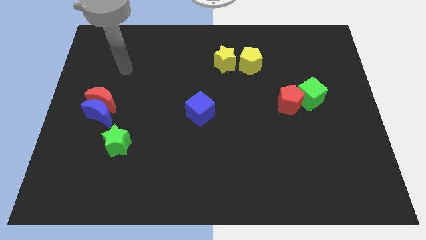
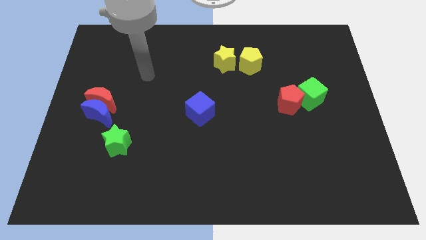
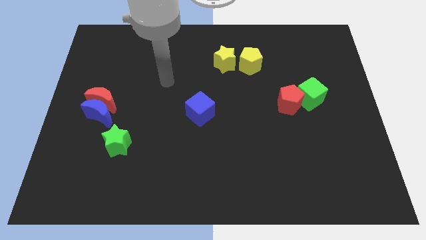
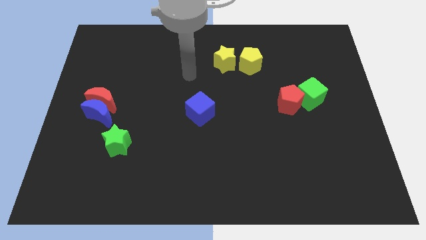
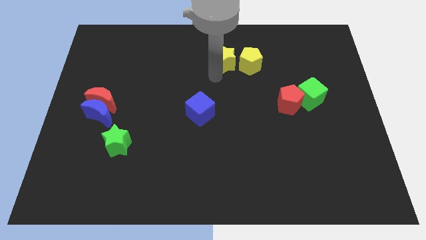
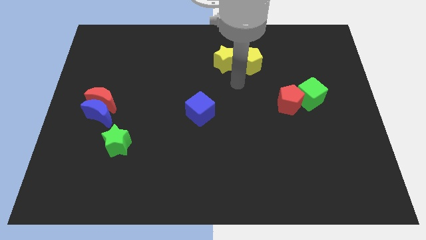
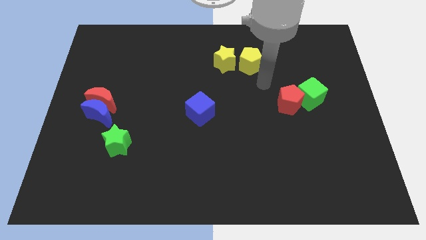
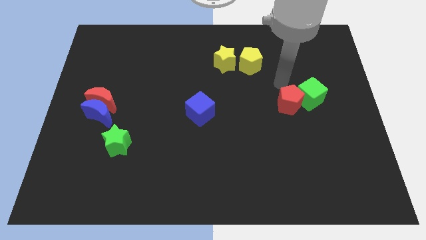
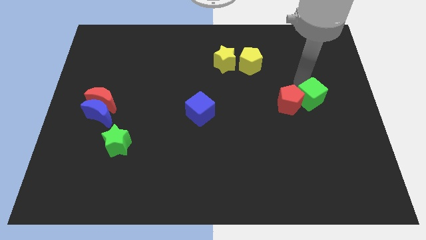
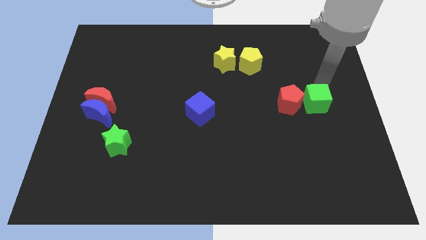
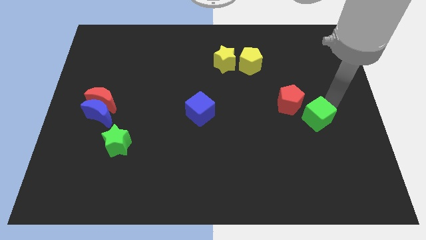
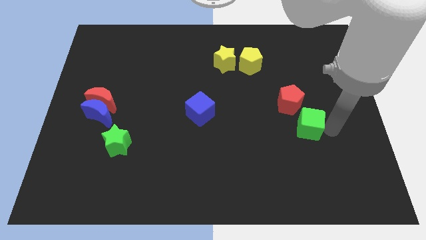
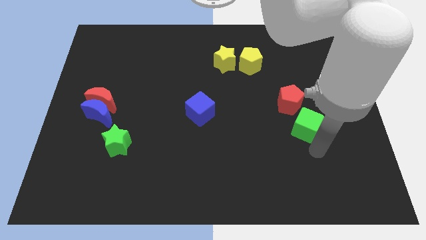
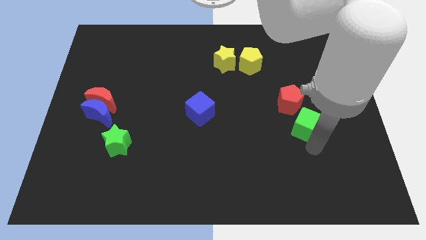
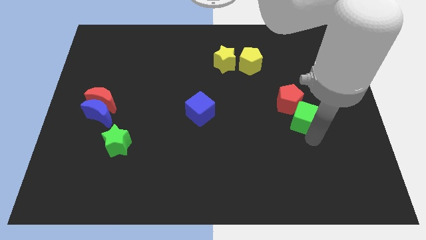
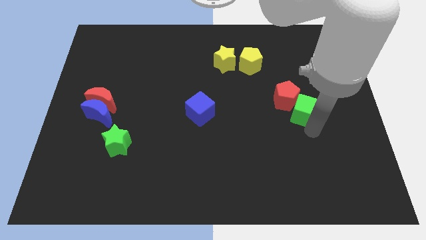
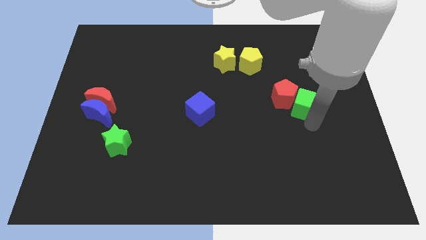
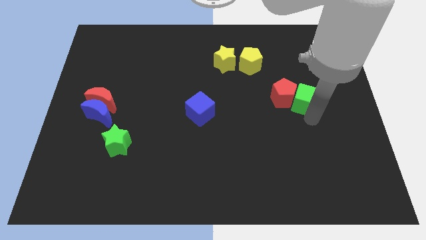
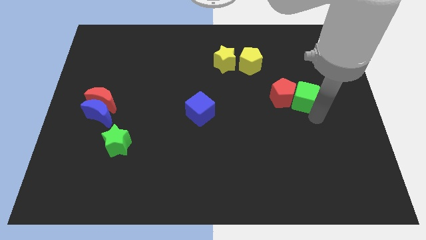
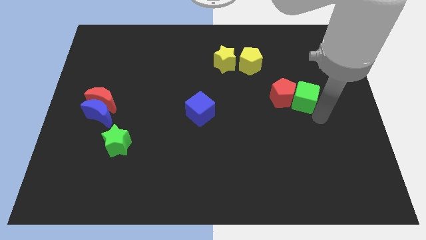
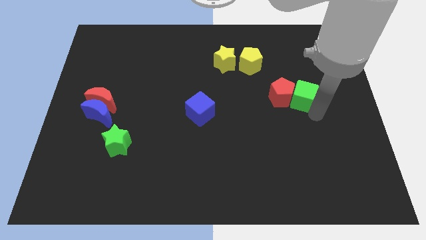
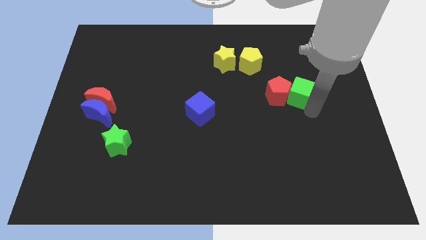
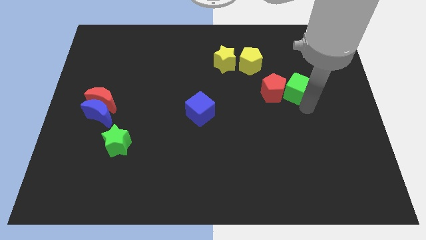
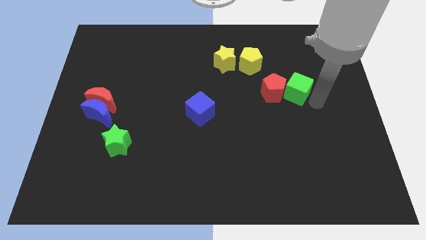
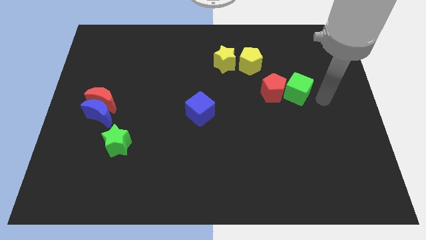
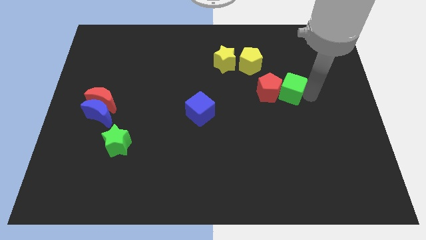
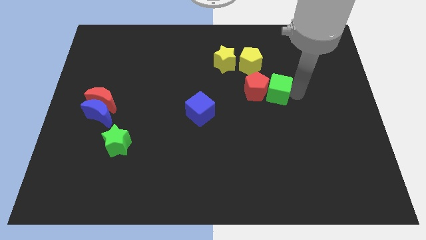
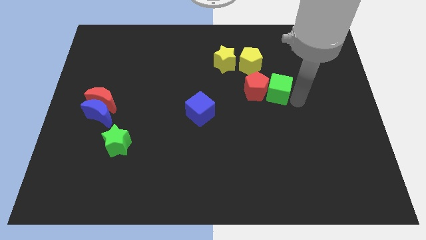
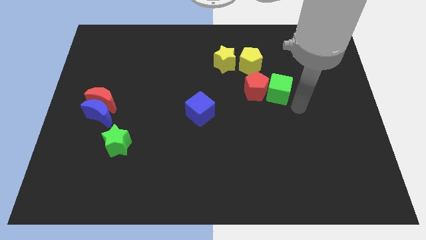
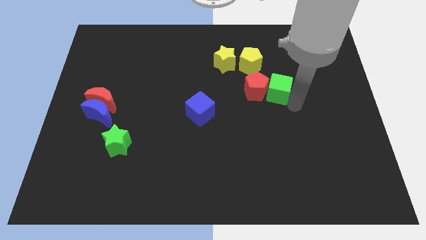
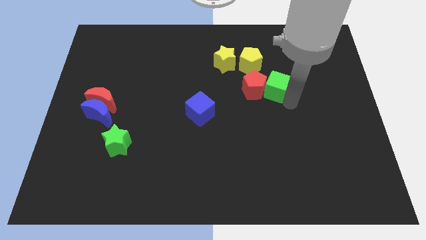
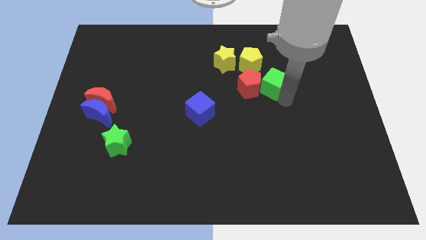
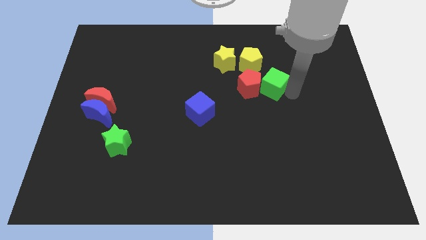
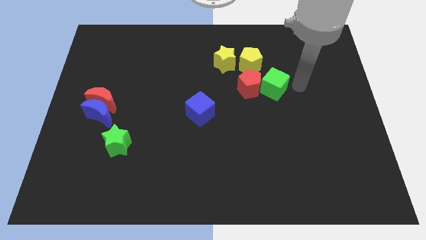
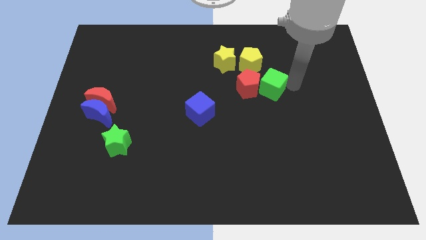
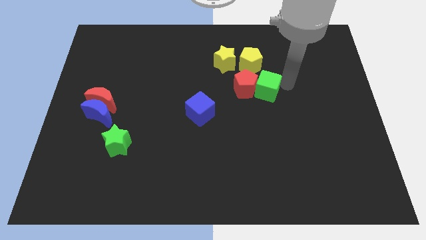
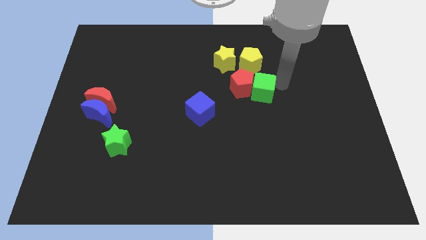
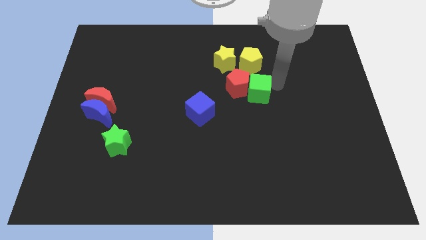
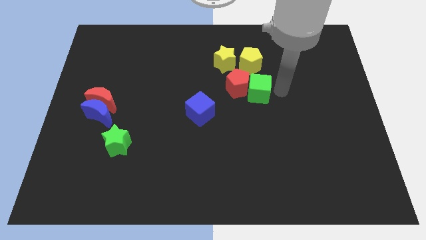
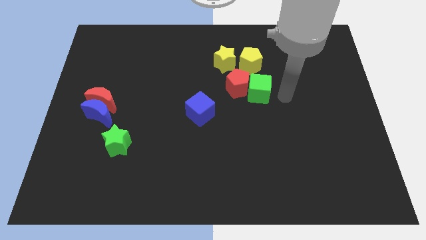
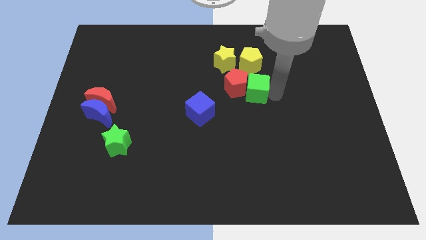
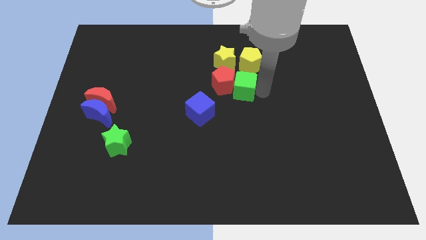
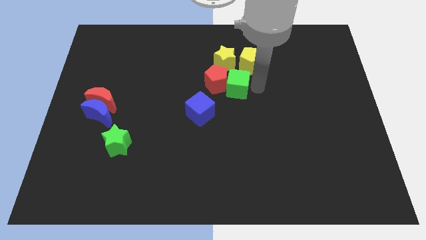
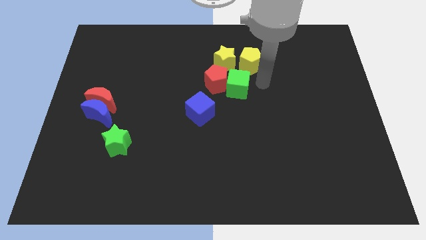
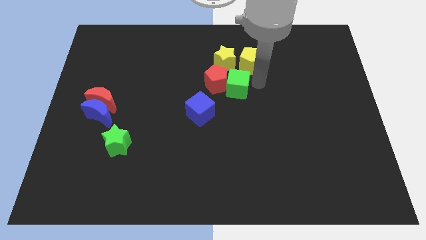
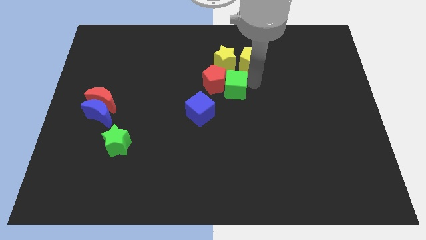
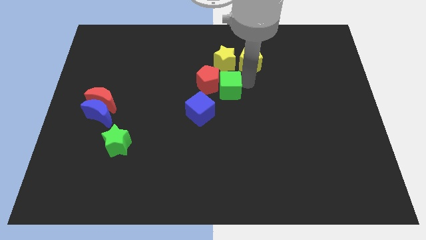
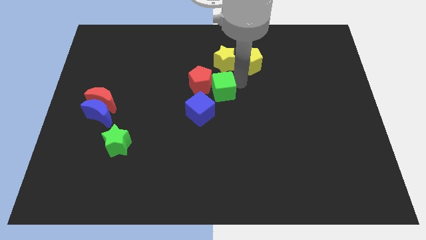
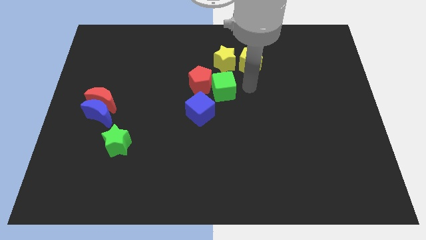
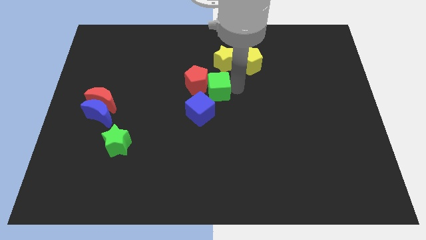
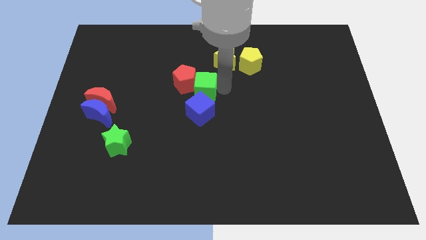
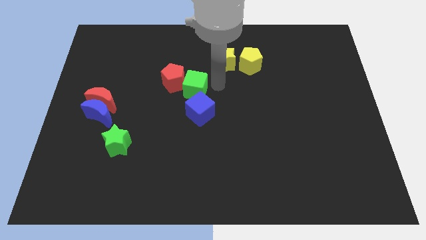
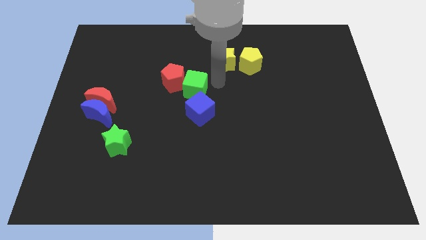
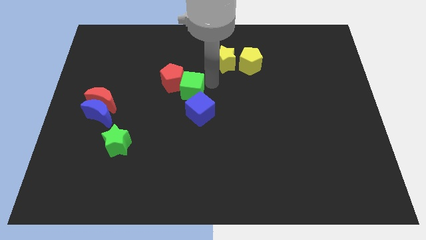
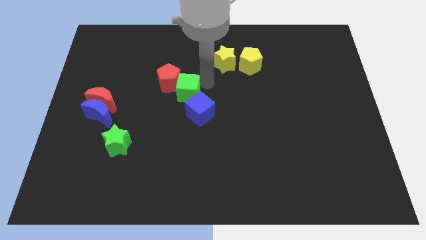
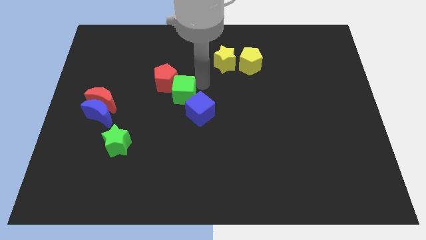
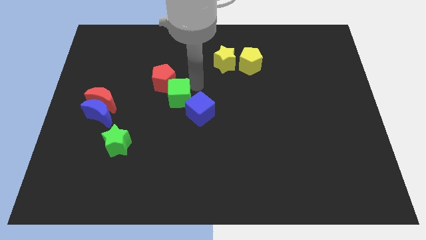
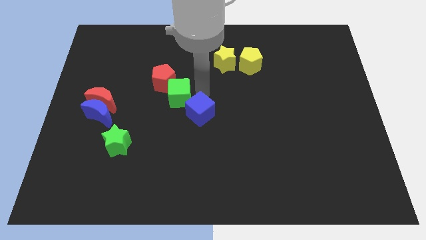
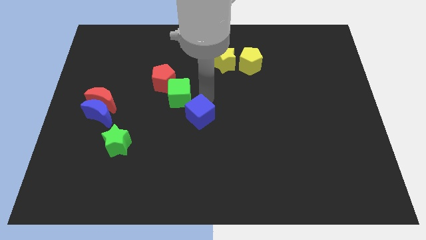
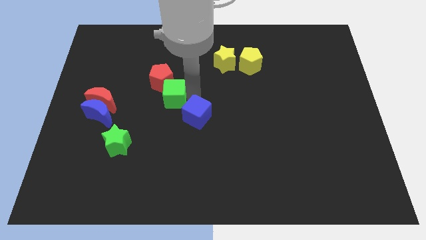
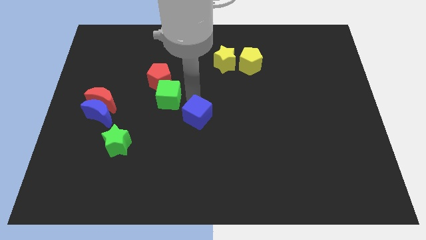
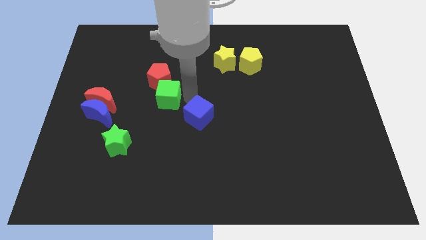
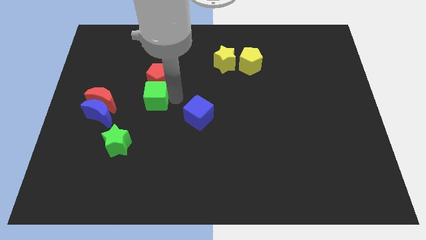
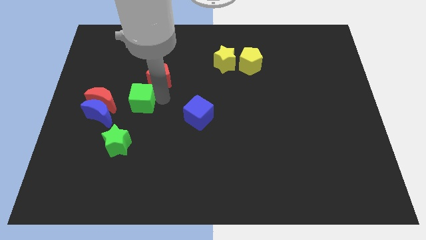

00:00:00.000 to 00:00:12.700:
move the green cube to the top of the green star

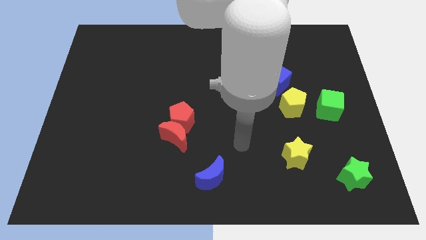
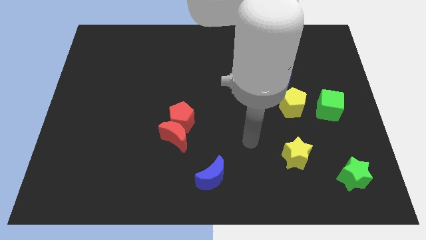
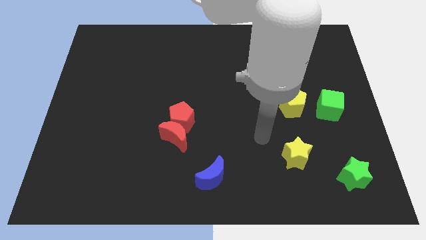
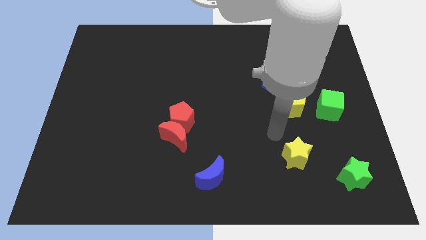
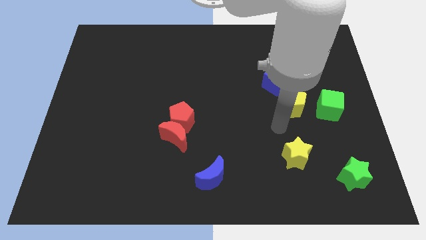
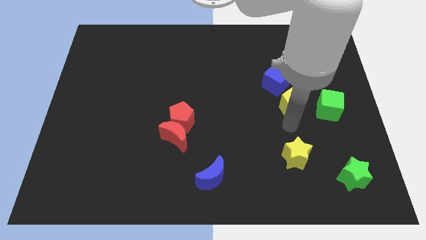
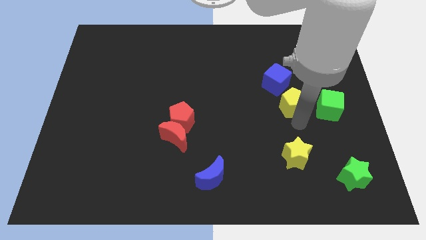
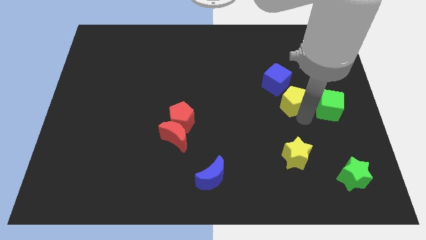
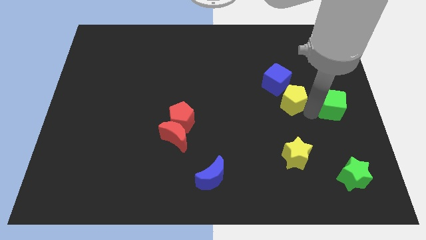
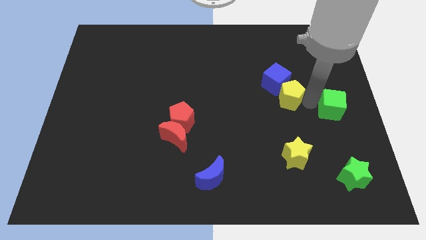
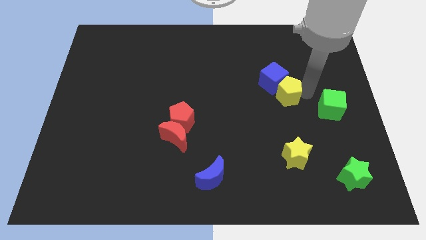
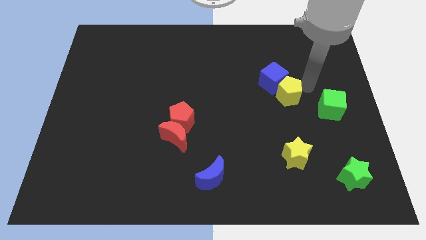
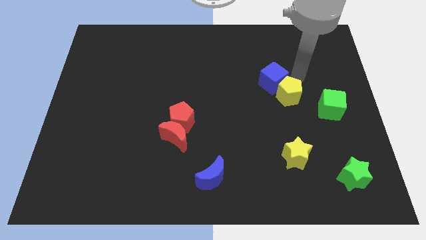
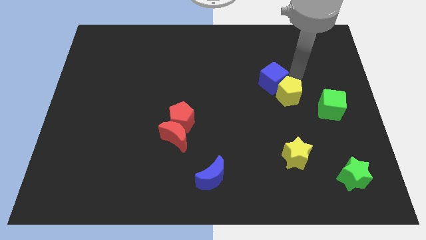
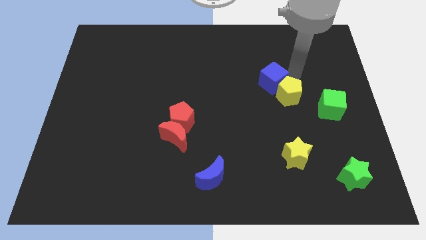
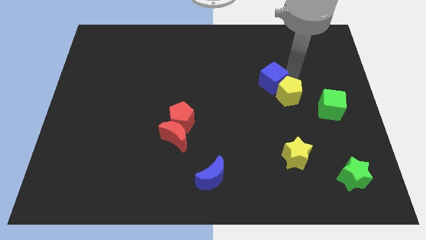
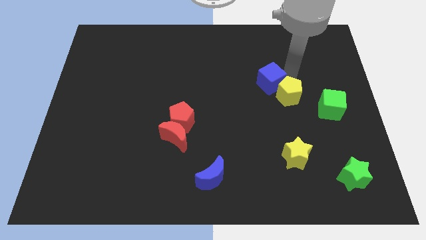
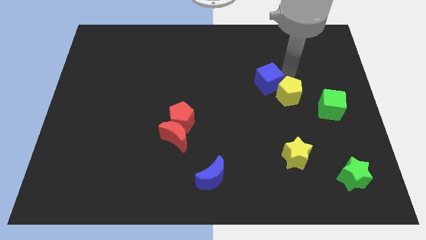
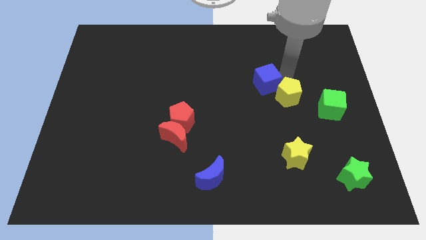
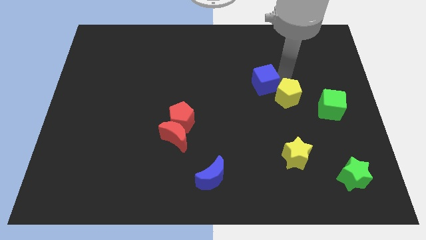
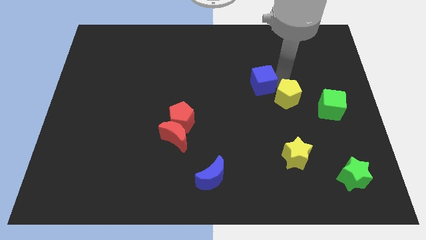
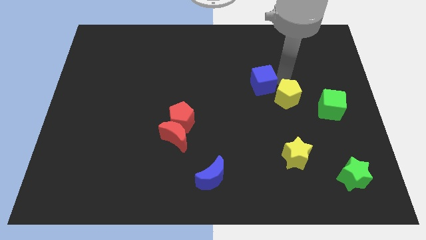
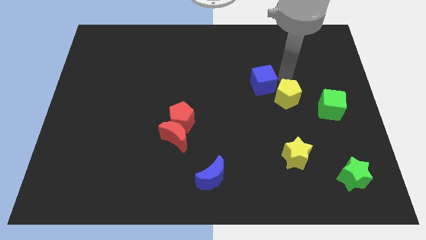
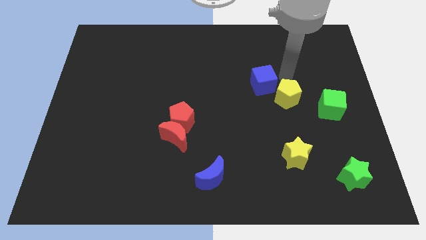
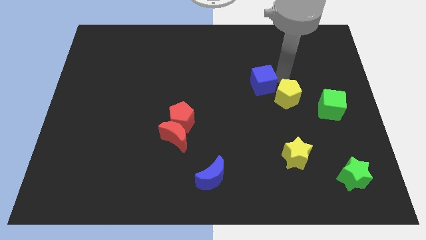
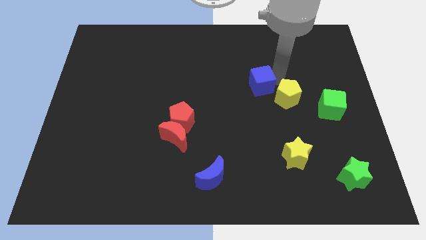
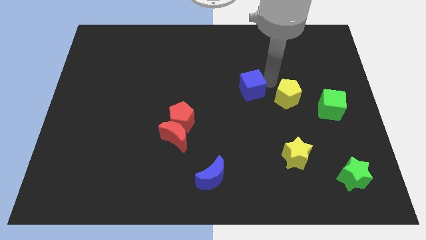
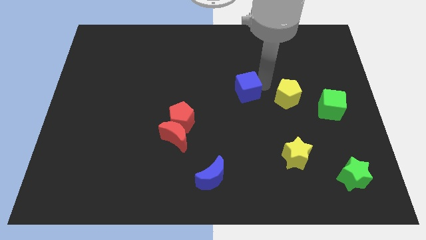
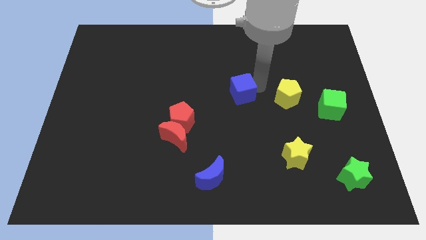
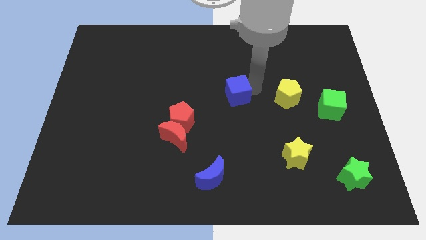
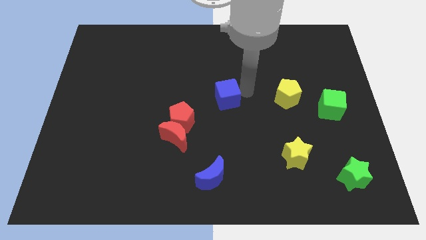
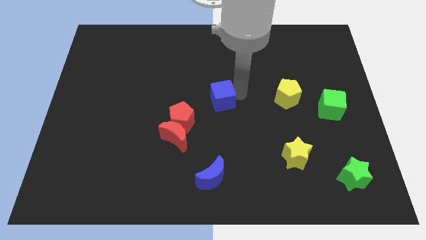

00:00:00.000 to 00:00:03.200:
move the blue cube to the top right of the red pentagon
